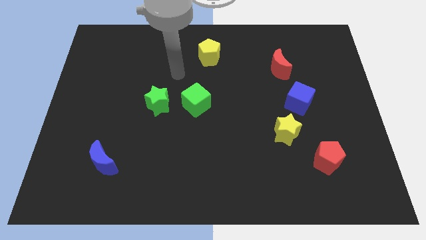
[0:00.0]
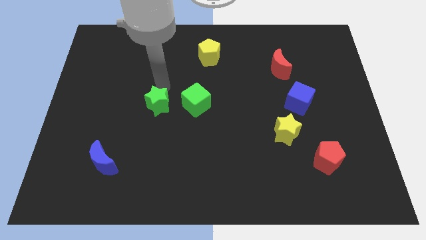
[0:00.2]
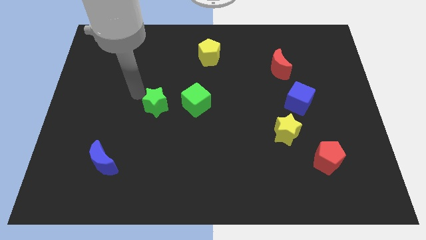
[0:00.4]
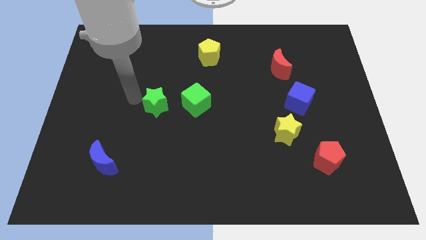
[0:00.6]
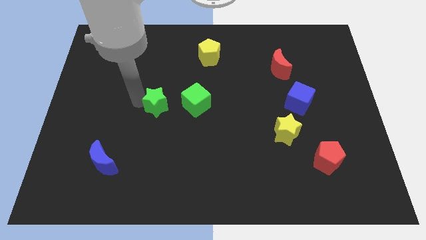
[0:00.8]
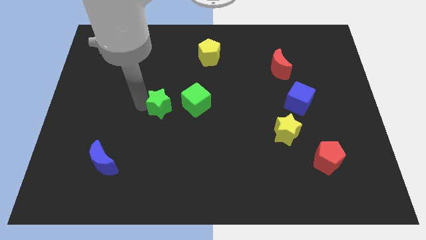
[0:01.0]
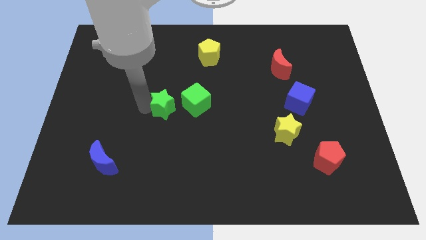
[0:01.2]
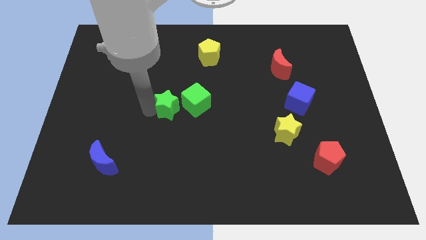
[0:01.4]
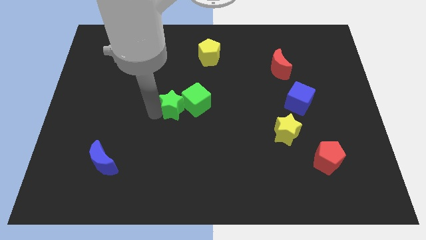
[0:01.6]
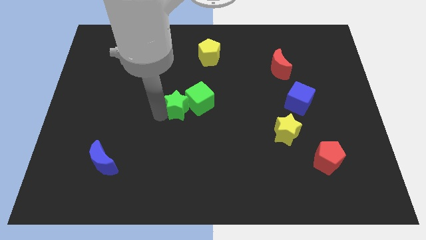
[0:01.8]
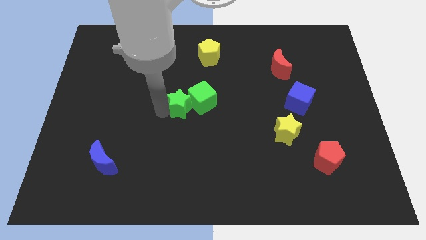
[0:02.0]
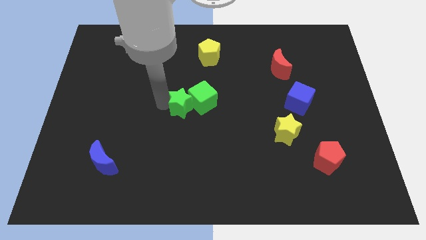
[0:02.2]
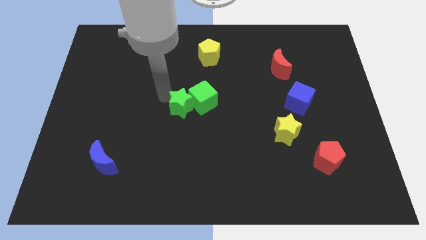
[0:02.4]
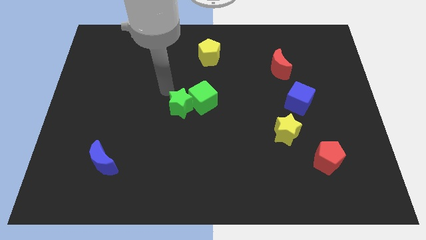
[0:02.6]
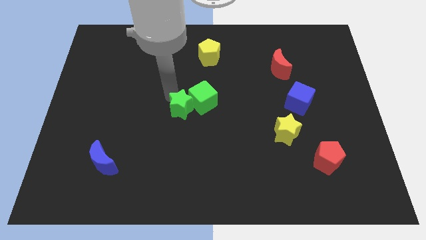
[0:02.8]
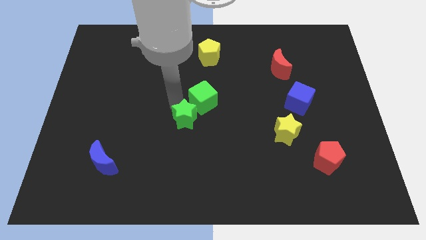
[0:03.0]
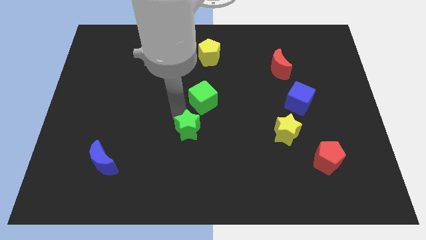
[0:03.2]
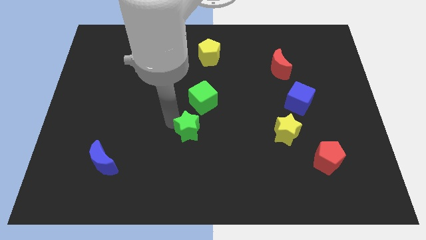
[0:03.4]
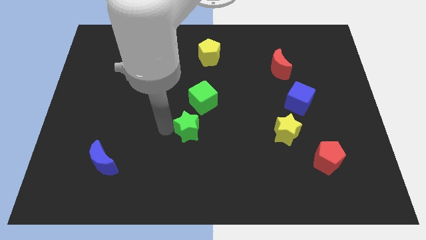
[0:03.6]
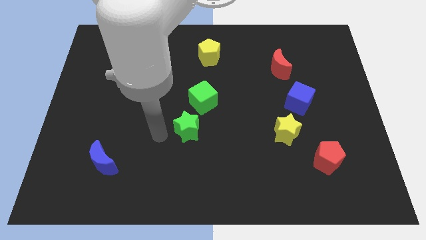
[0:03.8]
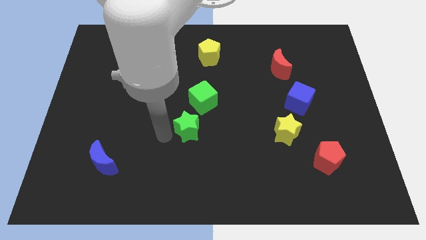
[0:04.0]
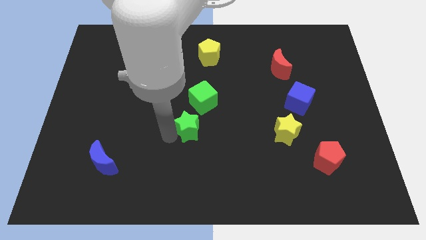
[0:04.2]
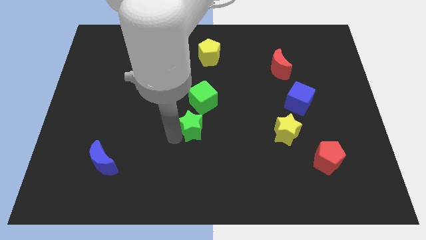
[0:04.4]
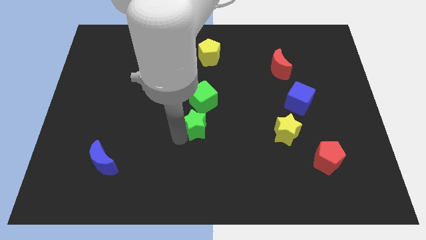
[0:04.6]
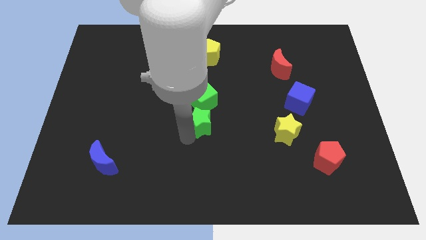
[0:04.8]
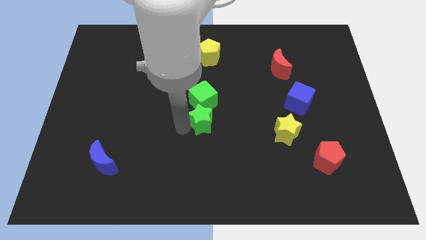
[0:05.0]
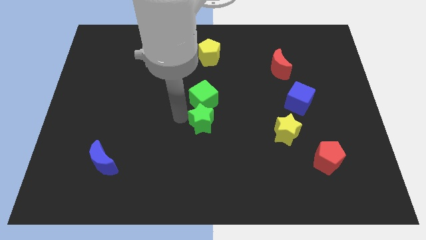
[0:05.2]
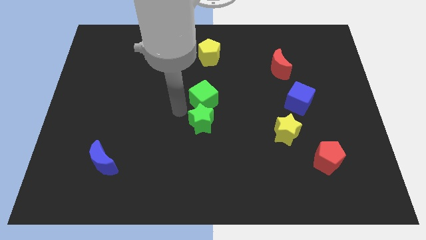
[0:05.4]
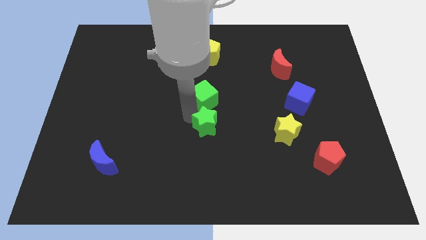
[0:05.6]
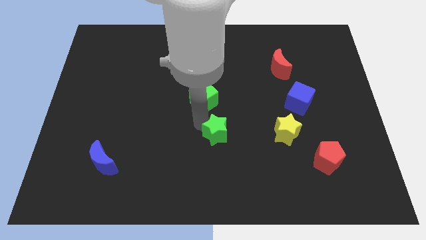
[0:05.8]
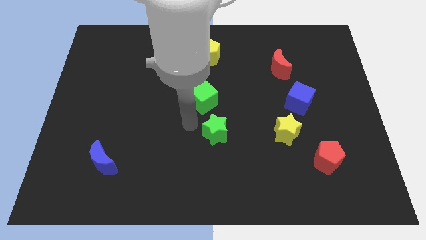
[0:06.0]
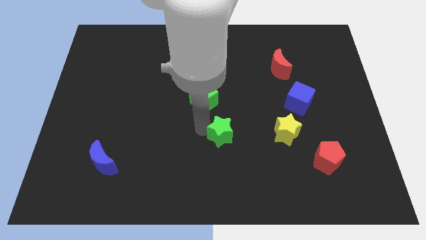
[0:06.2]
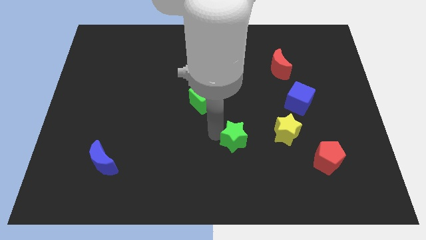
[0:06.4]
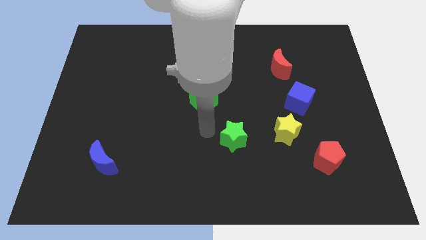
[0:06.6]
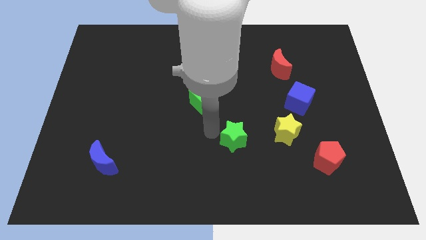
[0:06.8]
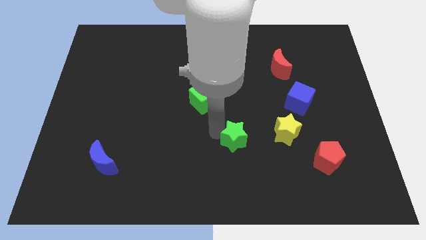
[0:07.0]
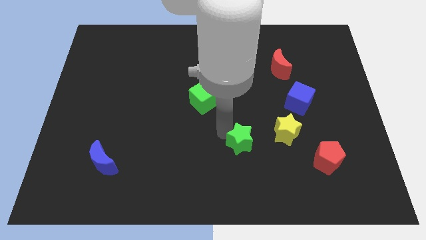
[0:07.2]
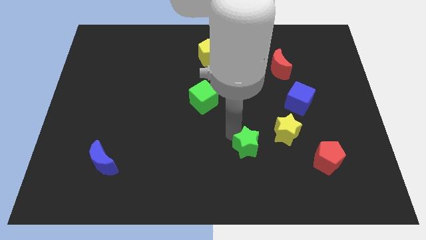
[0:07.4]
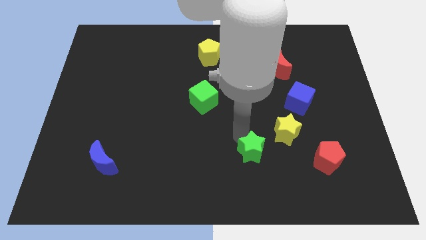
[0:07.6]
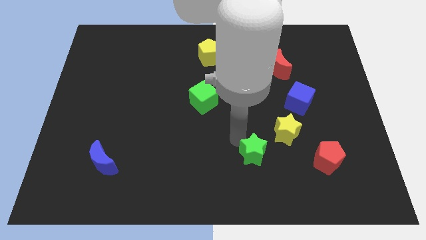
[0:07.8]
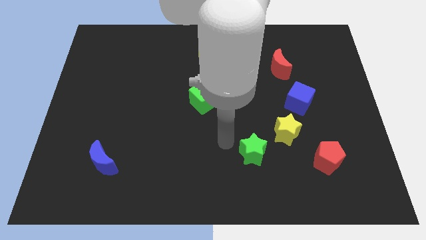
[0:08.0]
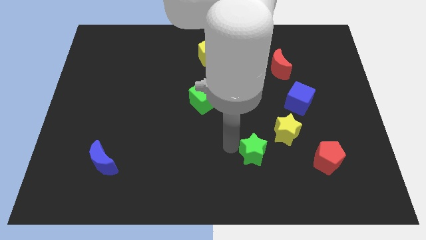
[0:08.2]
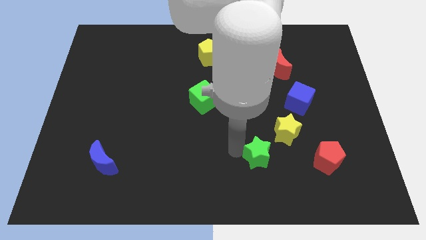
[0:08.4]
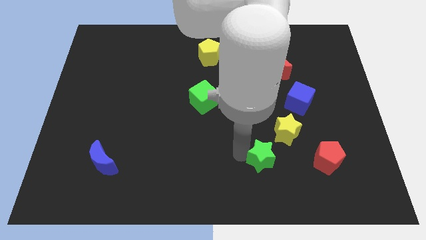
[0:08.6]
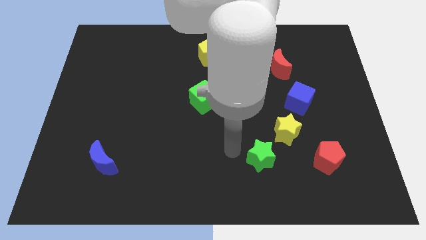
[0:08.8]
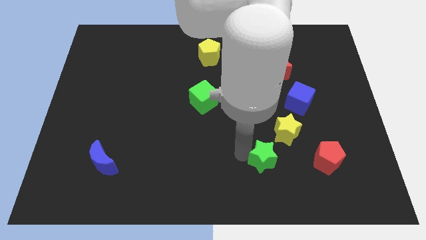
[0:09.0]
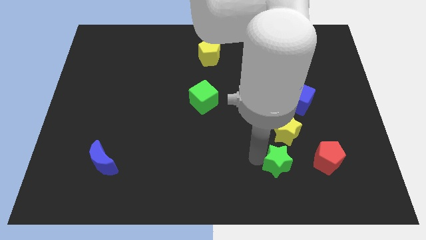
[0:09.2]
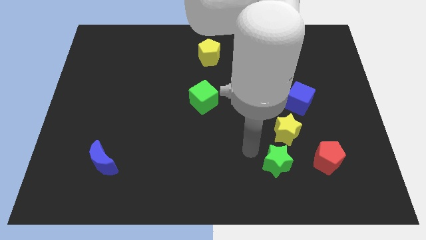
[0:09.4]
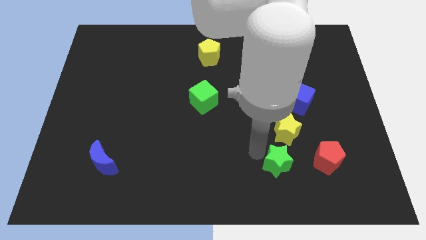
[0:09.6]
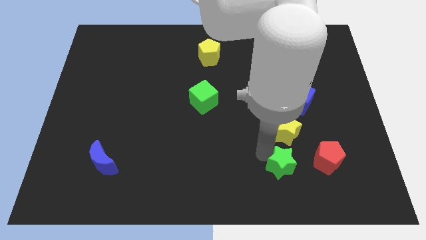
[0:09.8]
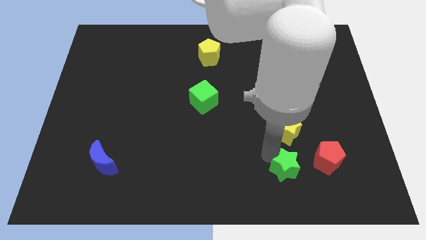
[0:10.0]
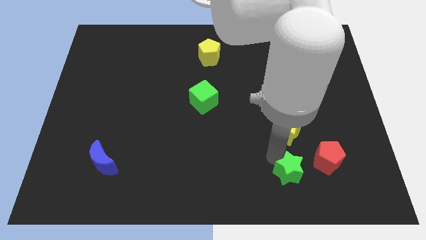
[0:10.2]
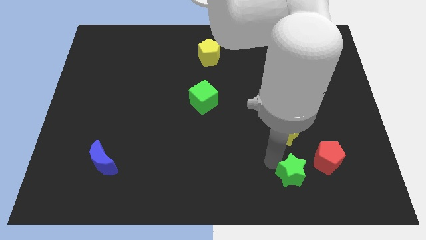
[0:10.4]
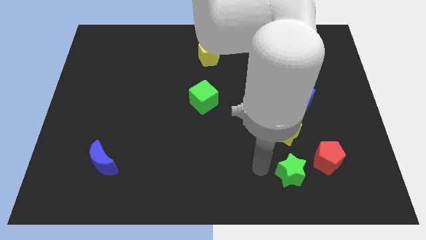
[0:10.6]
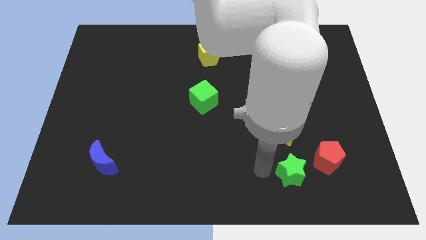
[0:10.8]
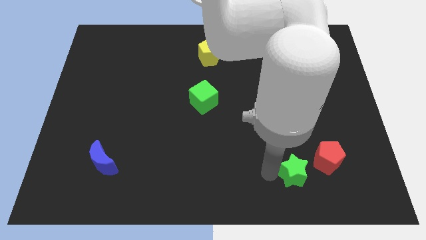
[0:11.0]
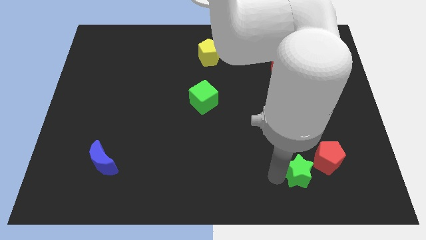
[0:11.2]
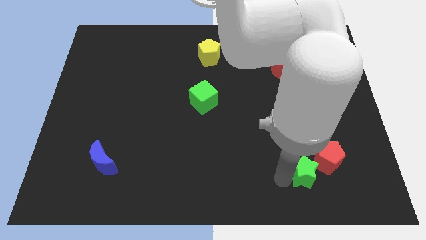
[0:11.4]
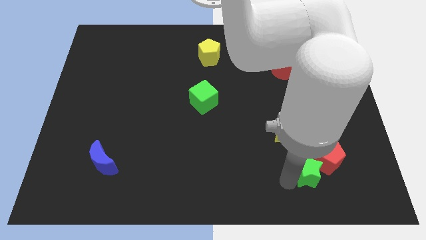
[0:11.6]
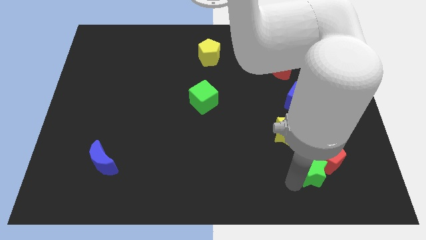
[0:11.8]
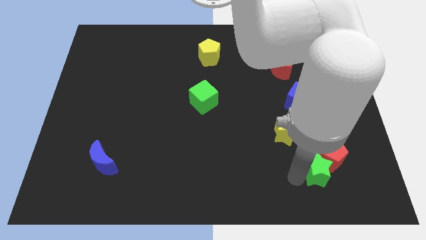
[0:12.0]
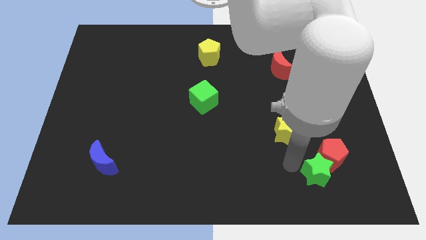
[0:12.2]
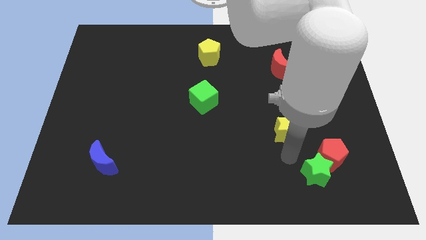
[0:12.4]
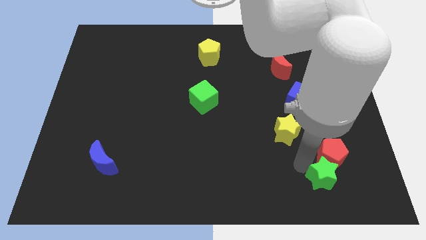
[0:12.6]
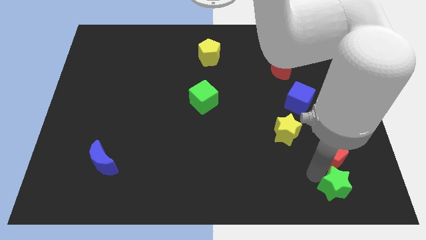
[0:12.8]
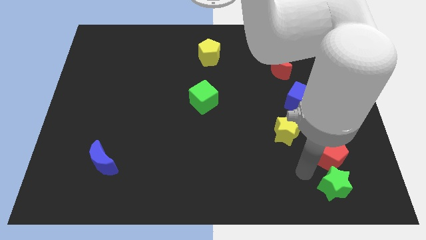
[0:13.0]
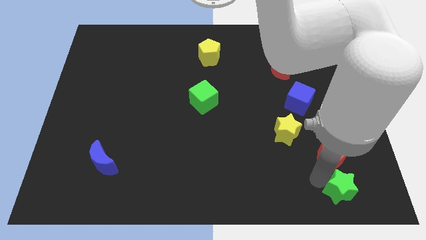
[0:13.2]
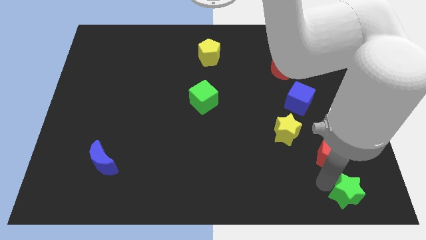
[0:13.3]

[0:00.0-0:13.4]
slide the green star to the lower right corner
